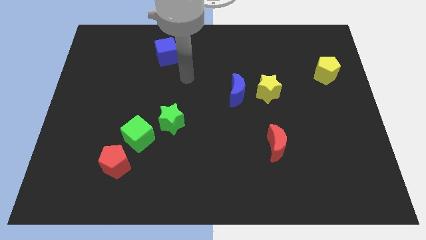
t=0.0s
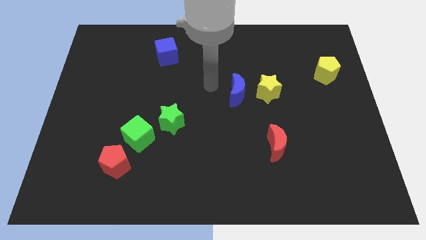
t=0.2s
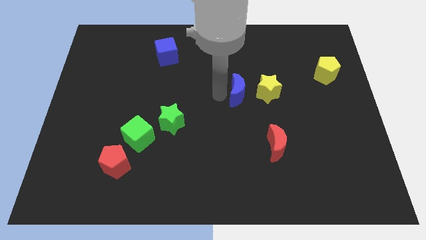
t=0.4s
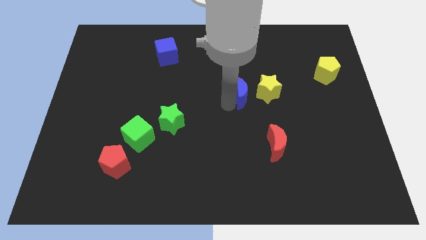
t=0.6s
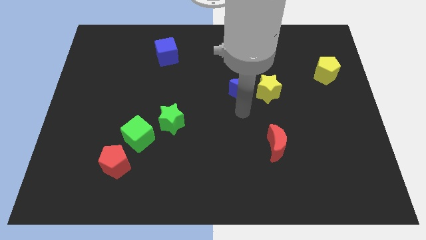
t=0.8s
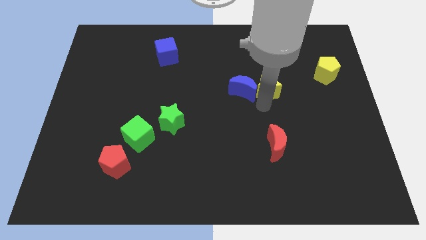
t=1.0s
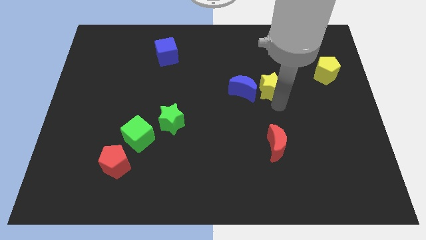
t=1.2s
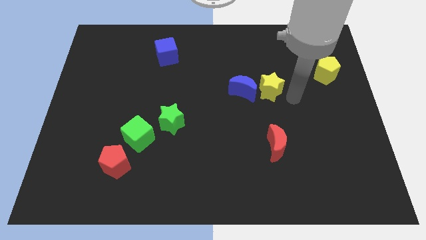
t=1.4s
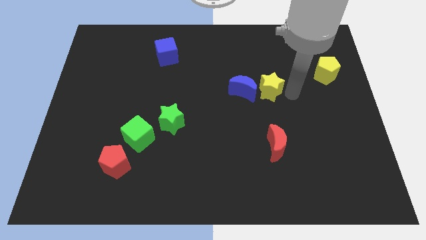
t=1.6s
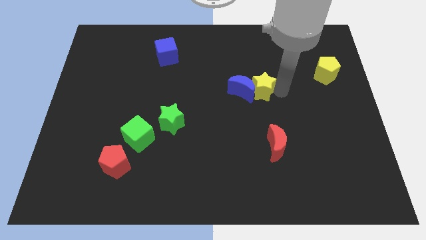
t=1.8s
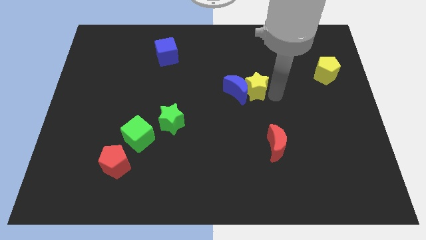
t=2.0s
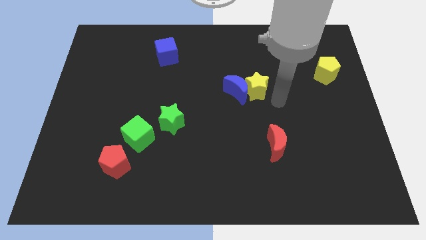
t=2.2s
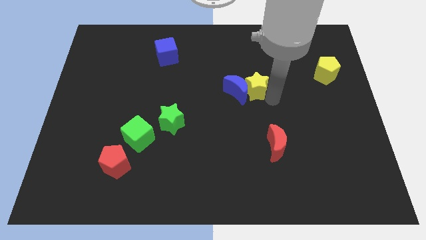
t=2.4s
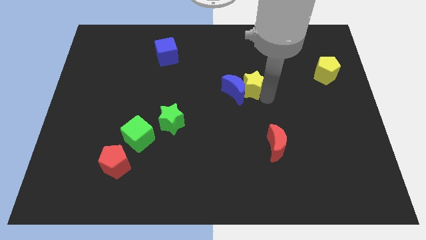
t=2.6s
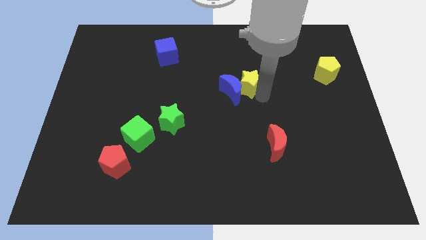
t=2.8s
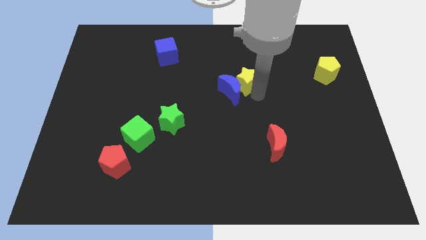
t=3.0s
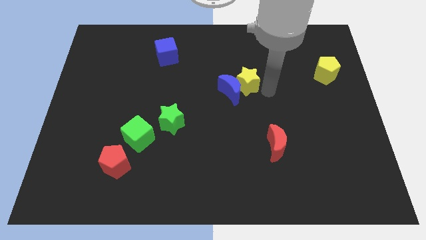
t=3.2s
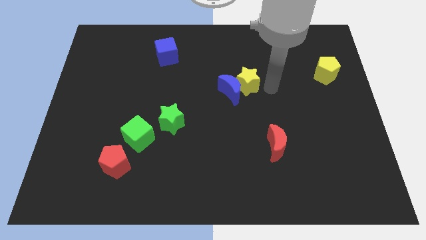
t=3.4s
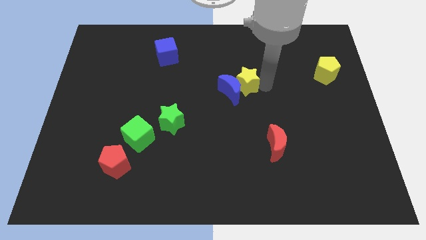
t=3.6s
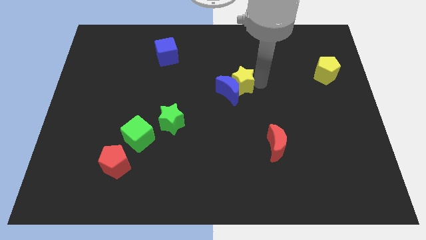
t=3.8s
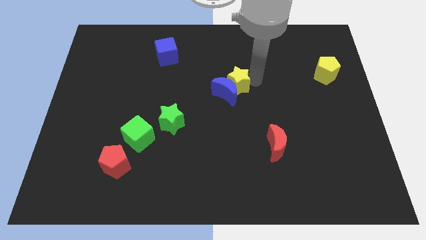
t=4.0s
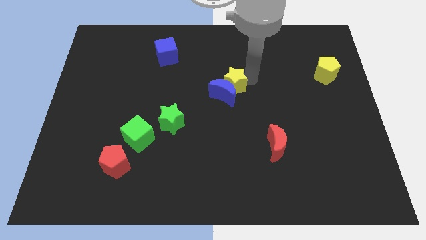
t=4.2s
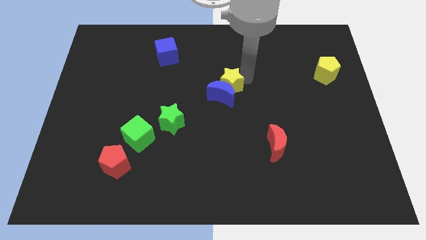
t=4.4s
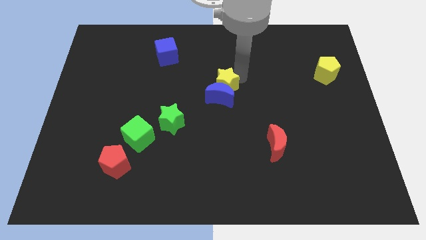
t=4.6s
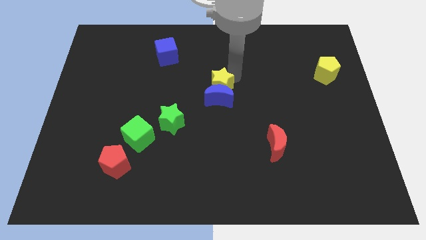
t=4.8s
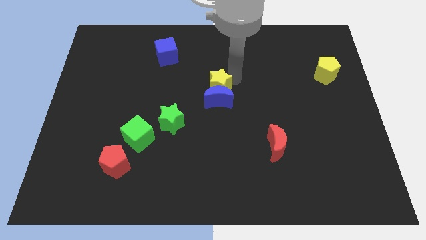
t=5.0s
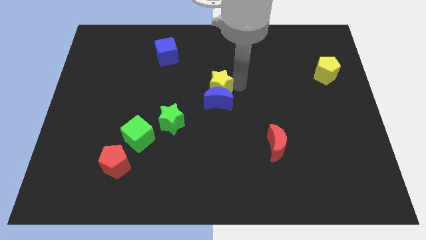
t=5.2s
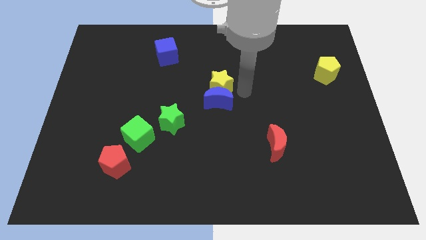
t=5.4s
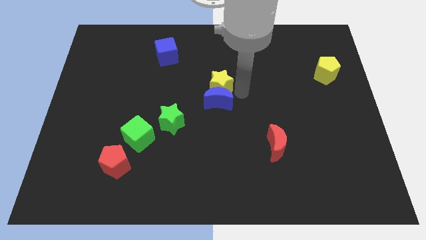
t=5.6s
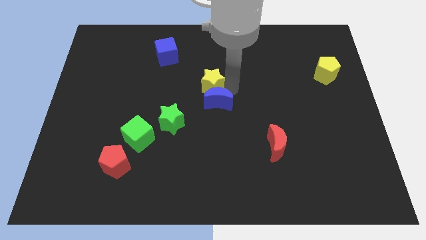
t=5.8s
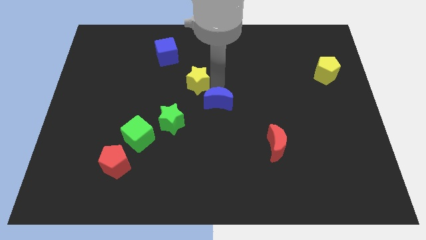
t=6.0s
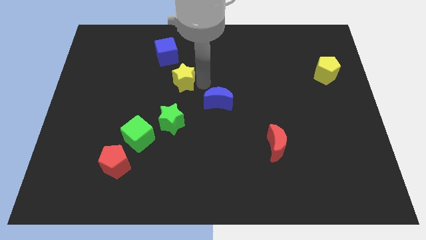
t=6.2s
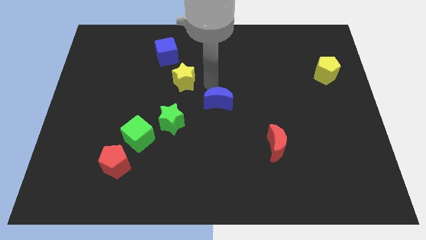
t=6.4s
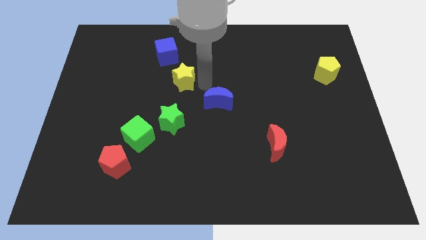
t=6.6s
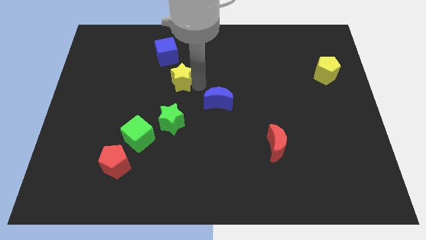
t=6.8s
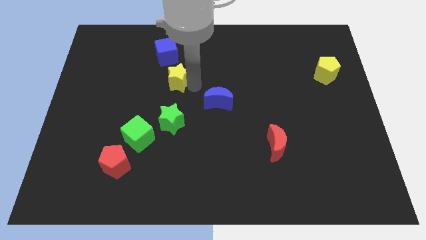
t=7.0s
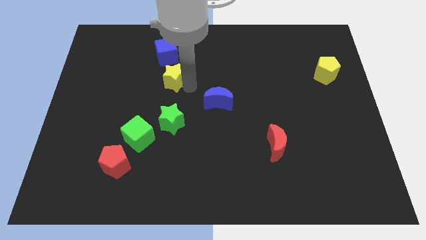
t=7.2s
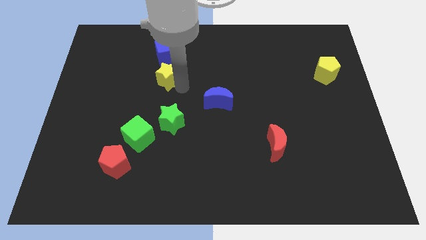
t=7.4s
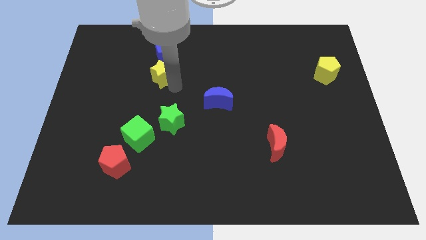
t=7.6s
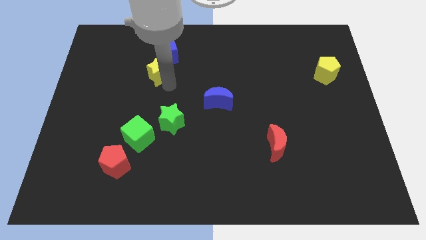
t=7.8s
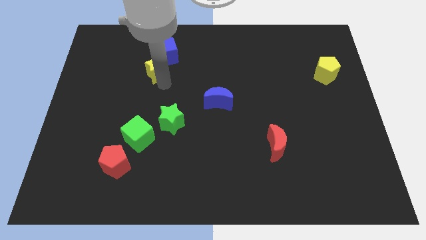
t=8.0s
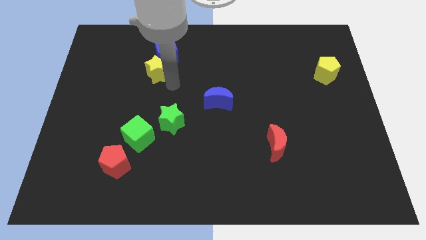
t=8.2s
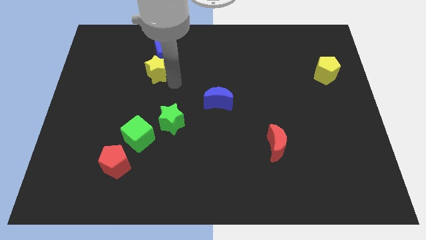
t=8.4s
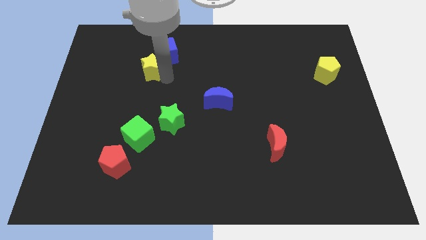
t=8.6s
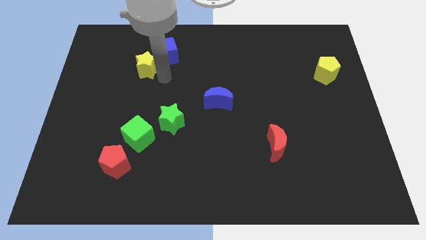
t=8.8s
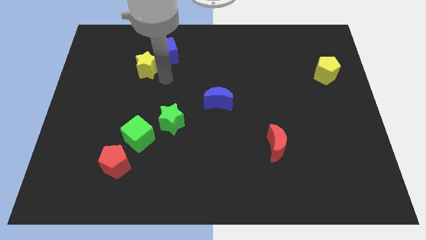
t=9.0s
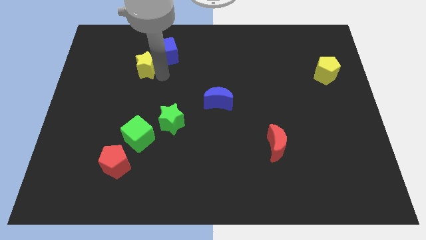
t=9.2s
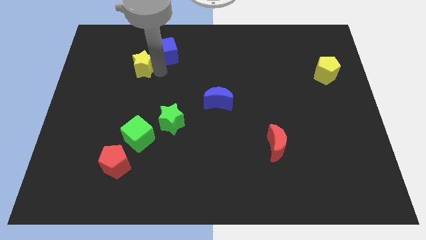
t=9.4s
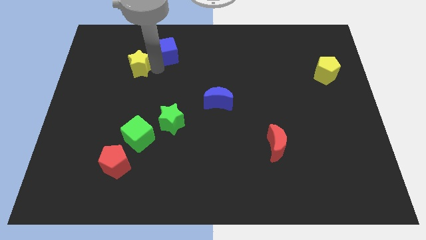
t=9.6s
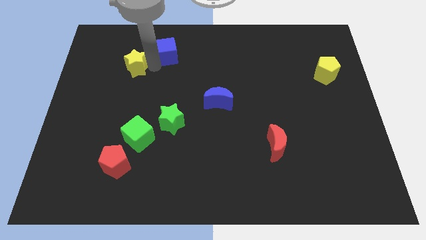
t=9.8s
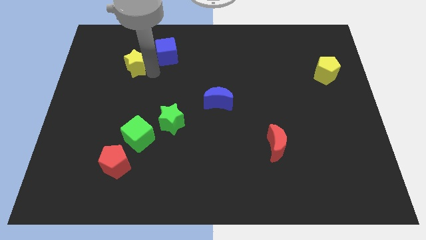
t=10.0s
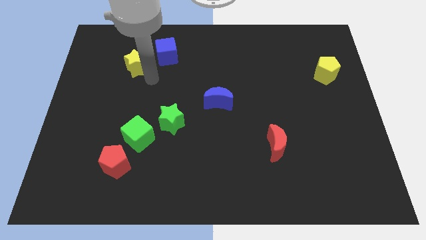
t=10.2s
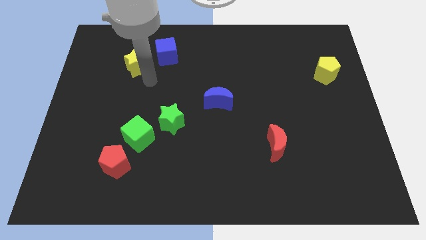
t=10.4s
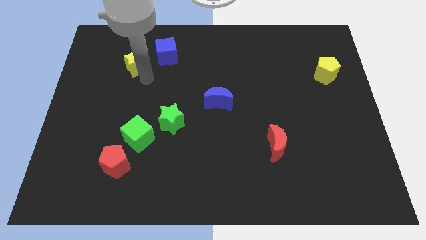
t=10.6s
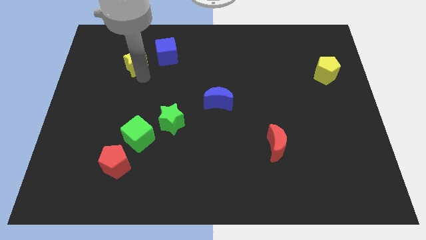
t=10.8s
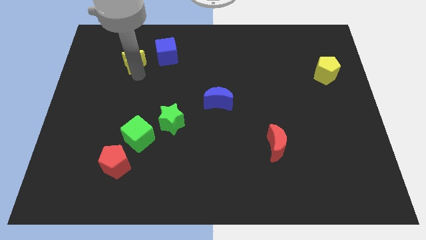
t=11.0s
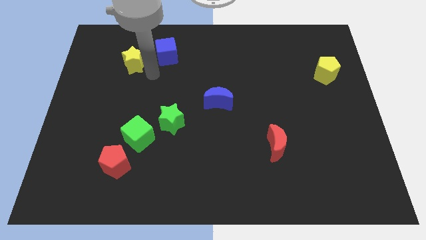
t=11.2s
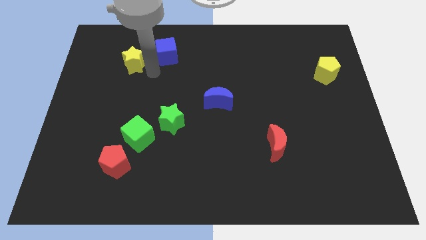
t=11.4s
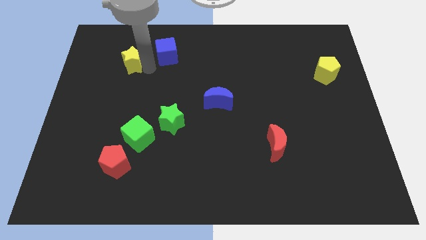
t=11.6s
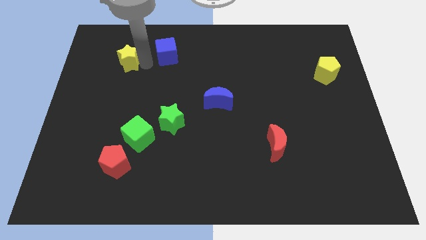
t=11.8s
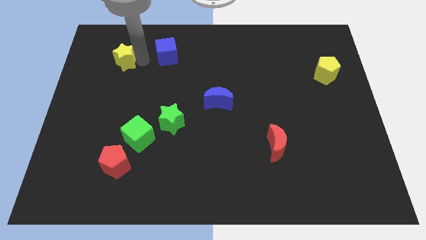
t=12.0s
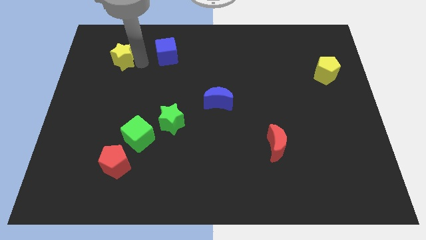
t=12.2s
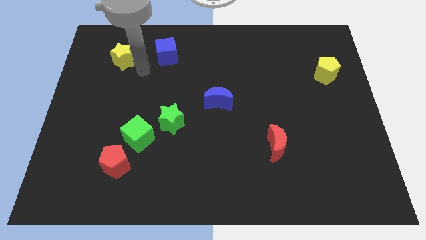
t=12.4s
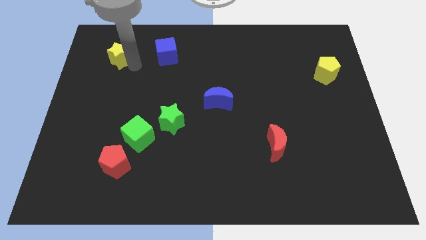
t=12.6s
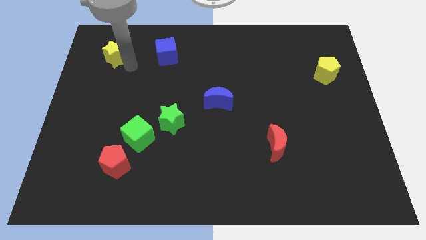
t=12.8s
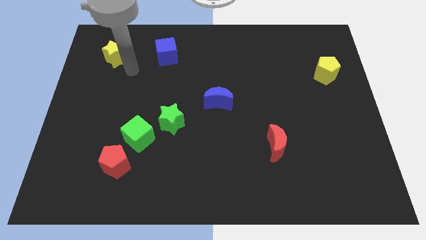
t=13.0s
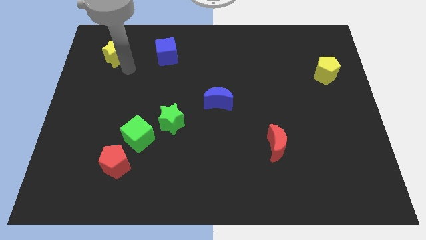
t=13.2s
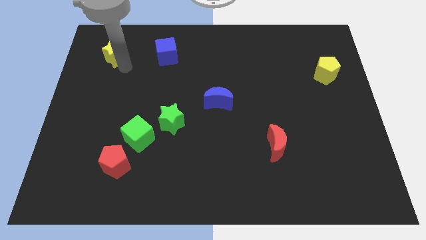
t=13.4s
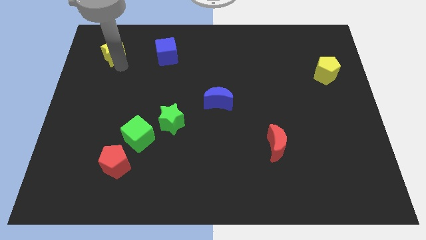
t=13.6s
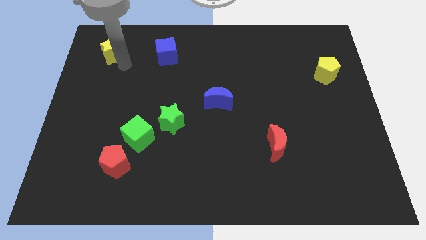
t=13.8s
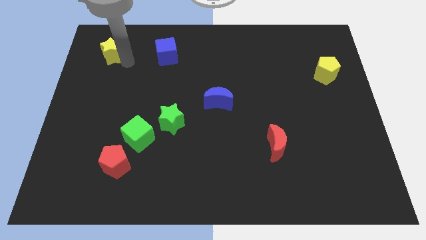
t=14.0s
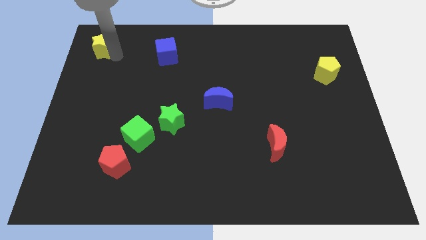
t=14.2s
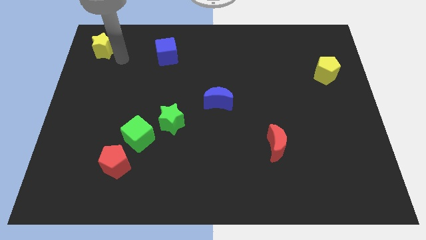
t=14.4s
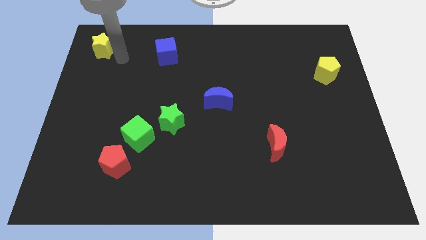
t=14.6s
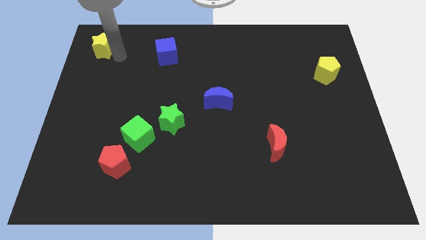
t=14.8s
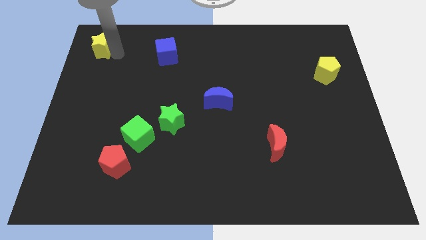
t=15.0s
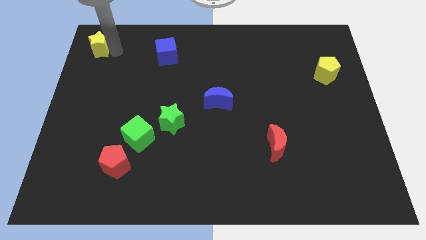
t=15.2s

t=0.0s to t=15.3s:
push the yellow star to the top left of the board
